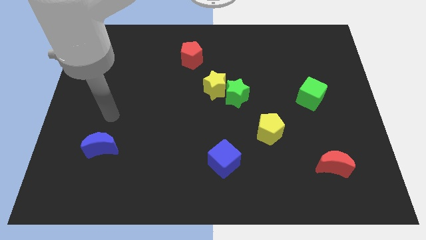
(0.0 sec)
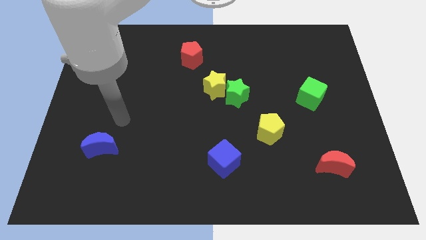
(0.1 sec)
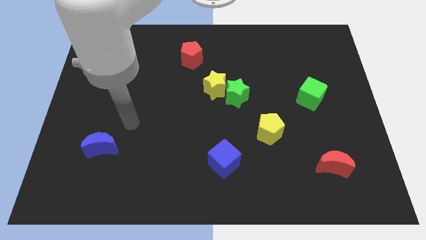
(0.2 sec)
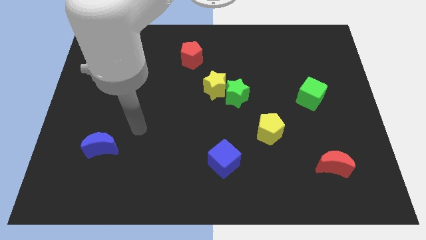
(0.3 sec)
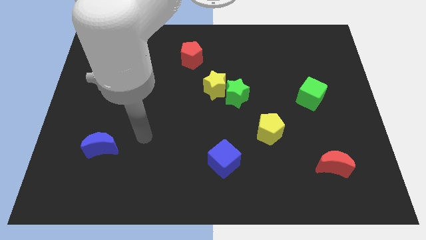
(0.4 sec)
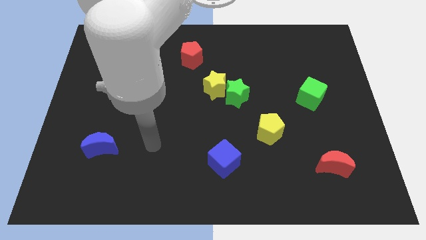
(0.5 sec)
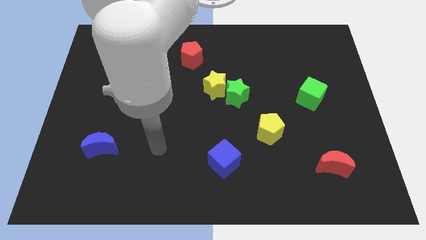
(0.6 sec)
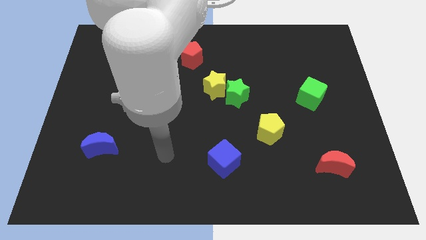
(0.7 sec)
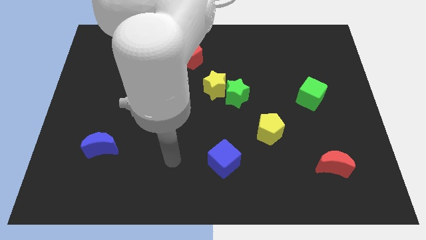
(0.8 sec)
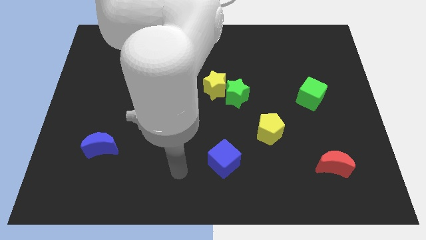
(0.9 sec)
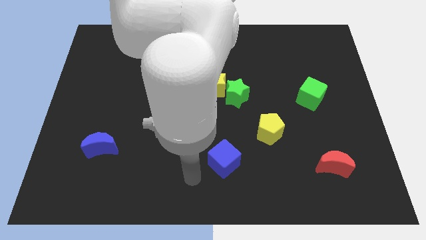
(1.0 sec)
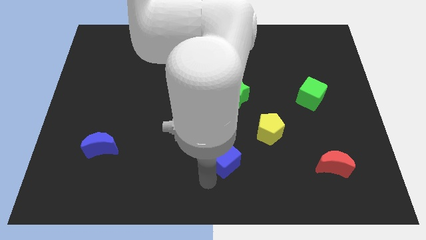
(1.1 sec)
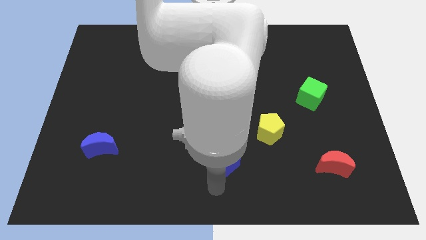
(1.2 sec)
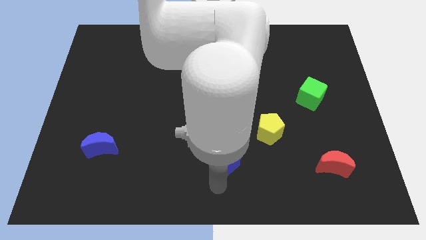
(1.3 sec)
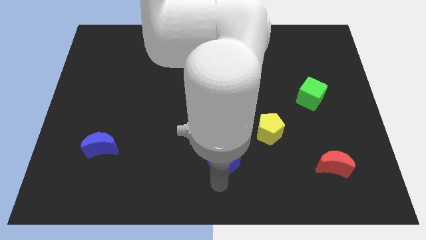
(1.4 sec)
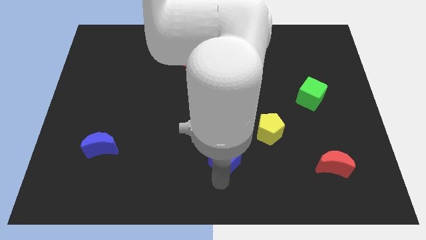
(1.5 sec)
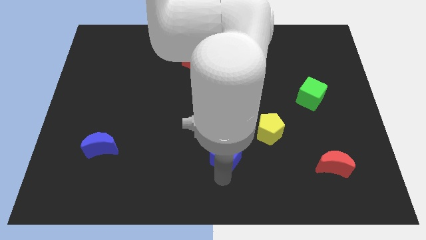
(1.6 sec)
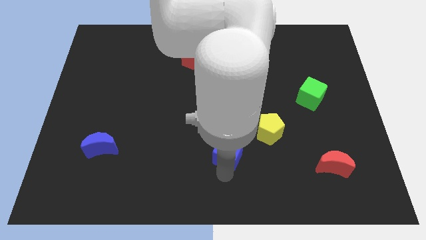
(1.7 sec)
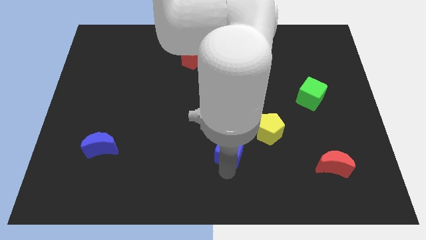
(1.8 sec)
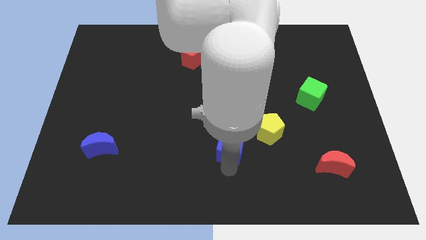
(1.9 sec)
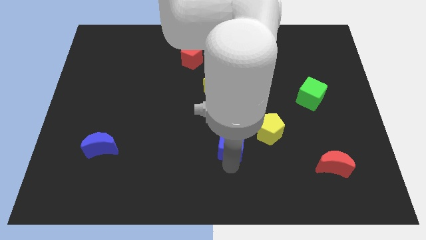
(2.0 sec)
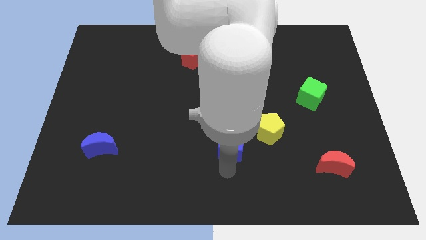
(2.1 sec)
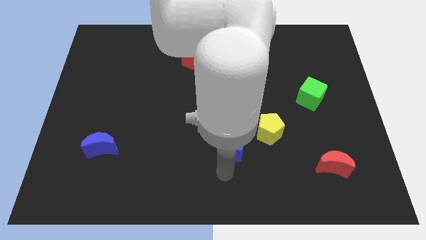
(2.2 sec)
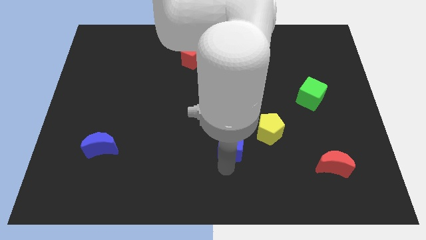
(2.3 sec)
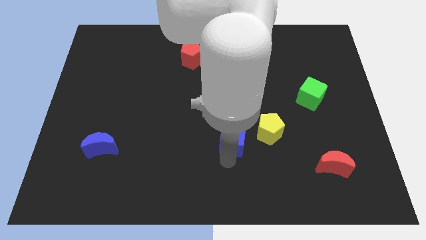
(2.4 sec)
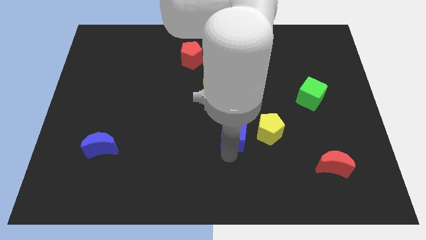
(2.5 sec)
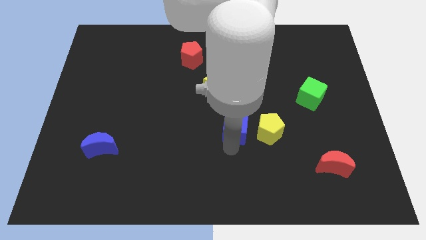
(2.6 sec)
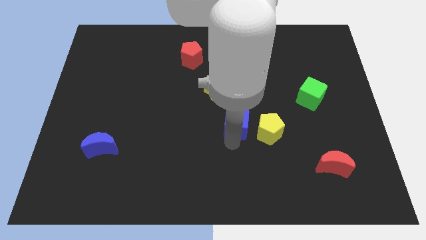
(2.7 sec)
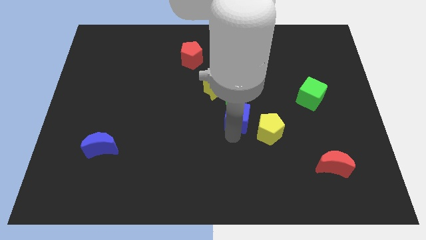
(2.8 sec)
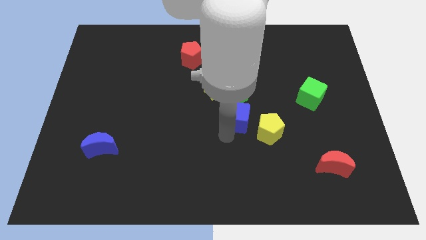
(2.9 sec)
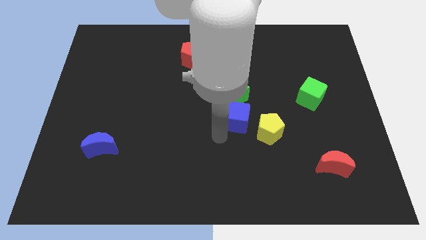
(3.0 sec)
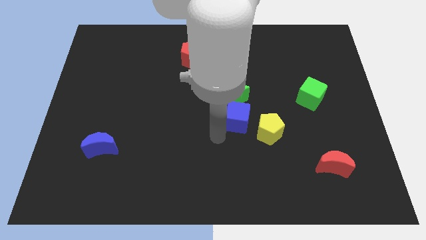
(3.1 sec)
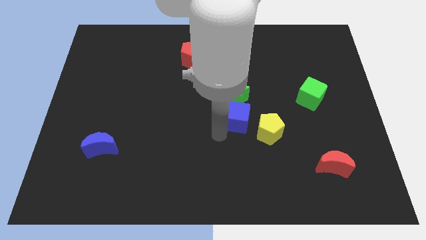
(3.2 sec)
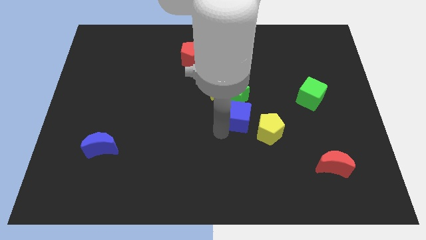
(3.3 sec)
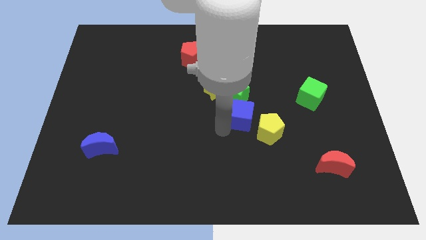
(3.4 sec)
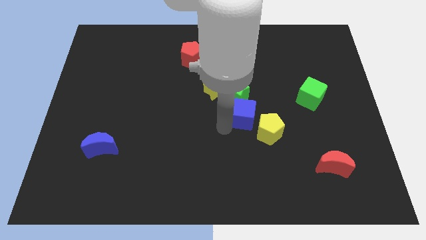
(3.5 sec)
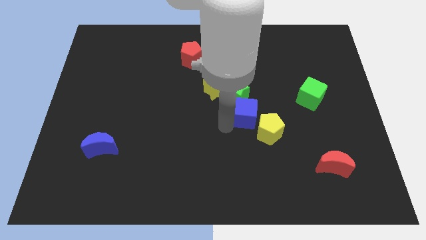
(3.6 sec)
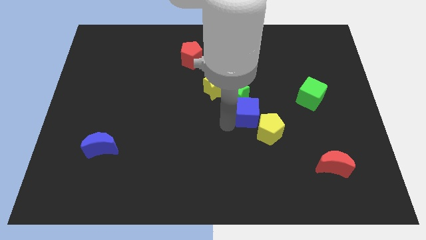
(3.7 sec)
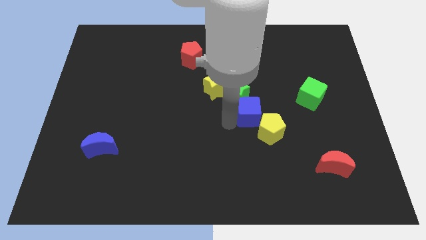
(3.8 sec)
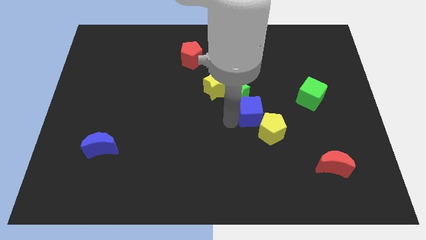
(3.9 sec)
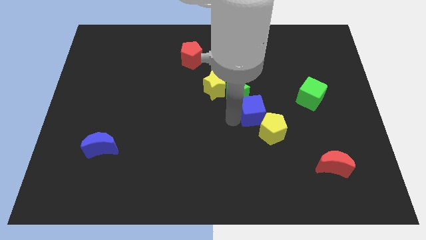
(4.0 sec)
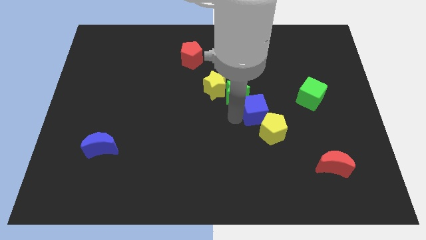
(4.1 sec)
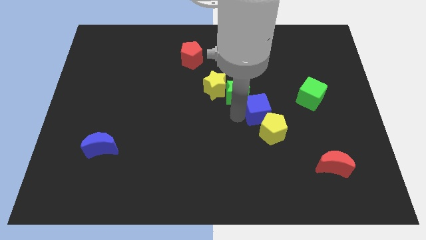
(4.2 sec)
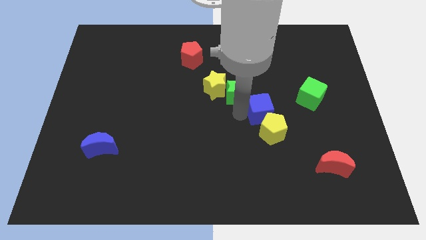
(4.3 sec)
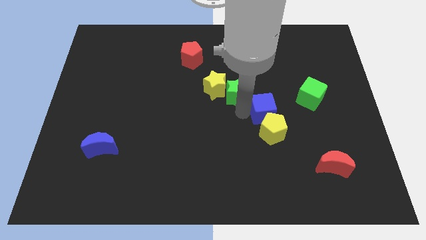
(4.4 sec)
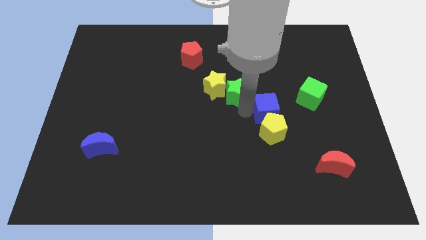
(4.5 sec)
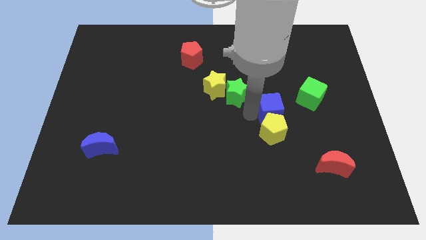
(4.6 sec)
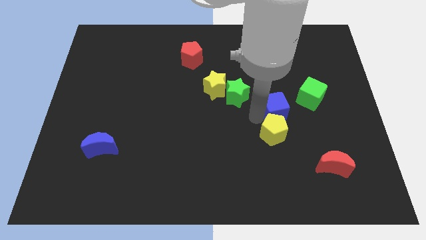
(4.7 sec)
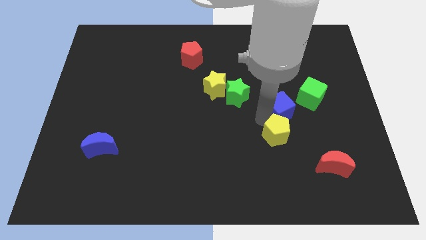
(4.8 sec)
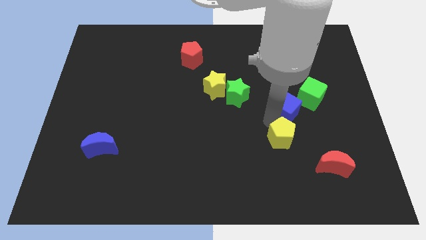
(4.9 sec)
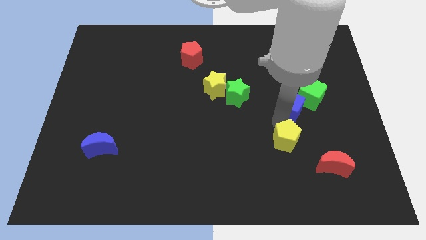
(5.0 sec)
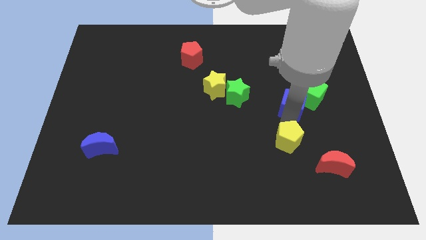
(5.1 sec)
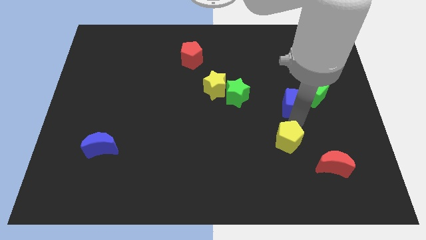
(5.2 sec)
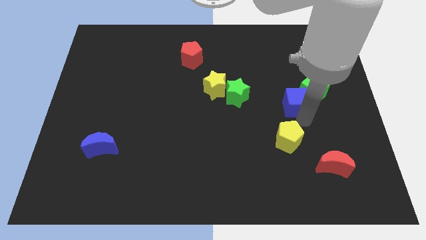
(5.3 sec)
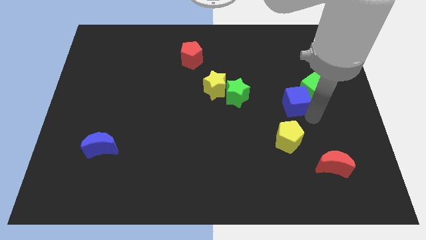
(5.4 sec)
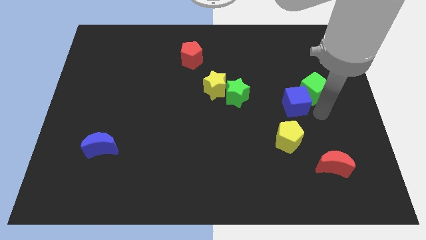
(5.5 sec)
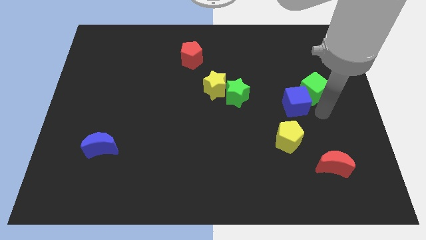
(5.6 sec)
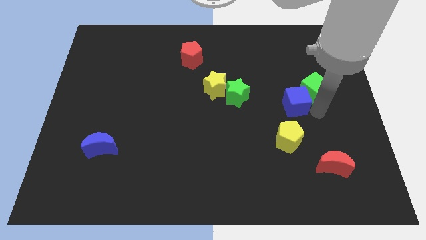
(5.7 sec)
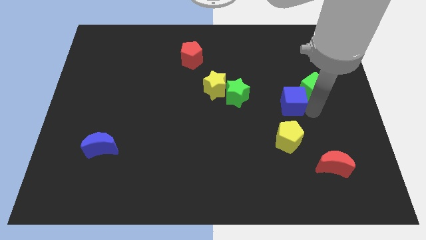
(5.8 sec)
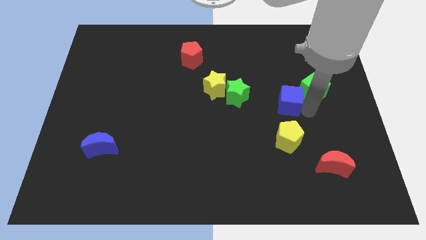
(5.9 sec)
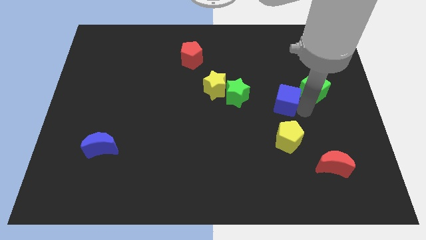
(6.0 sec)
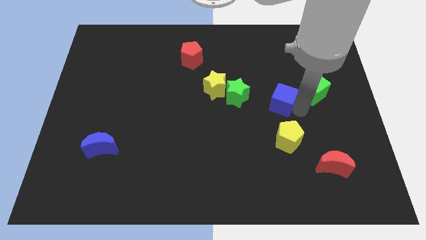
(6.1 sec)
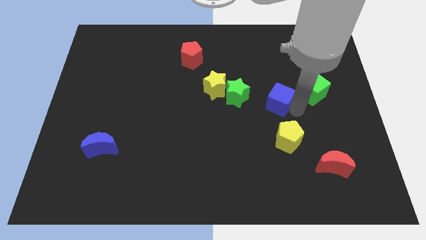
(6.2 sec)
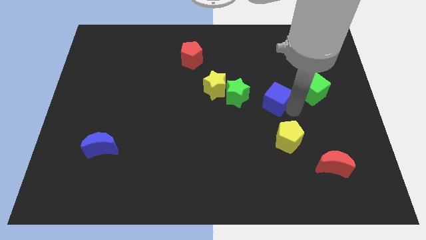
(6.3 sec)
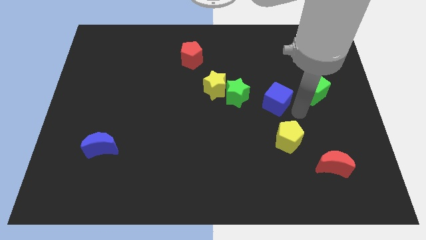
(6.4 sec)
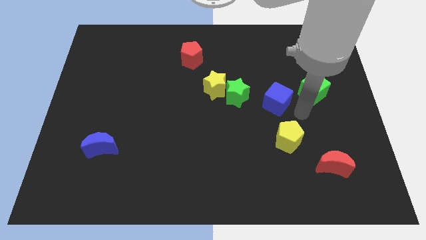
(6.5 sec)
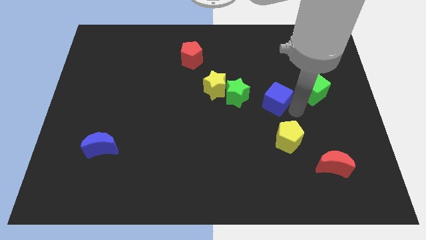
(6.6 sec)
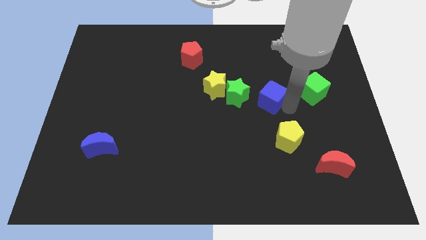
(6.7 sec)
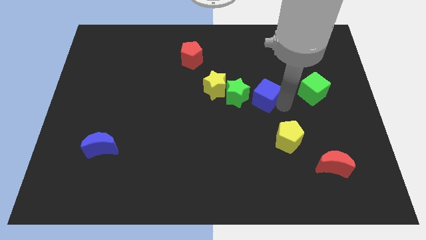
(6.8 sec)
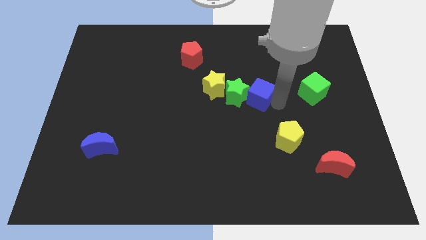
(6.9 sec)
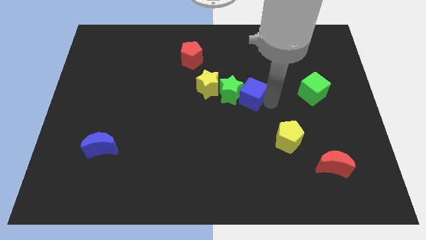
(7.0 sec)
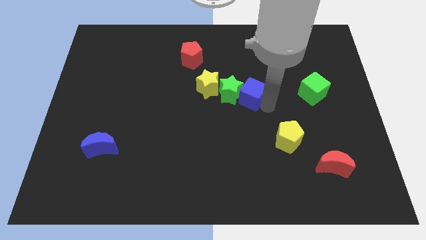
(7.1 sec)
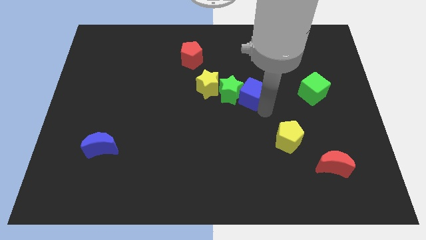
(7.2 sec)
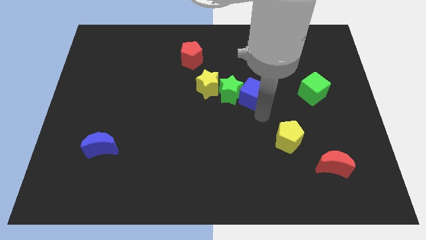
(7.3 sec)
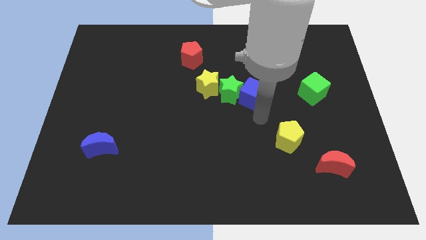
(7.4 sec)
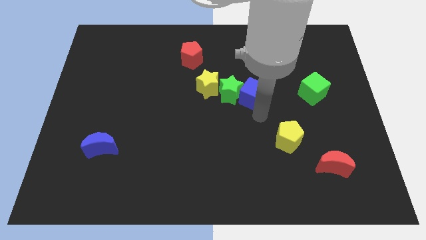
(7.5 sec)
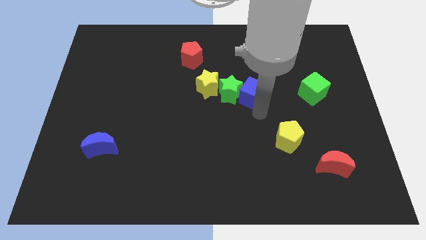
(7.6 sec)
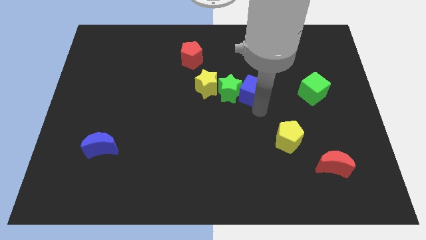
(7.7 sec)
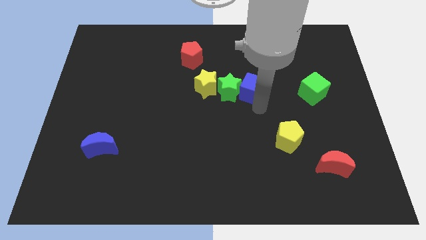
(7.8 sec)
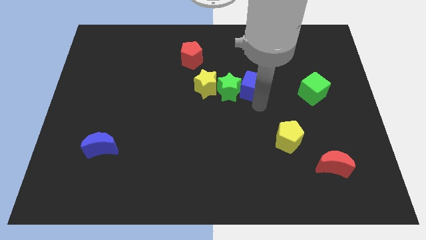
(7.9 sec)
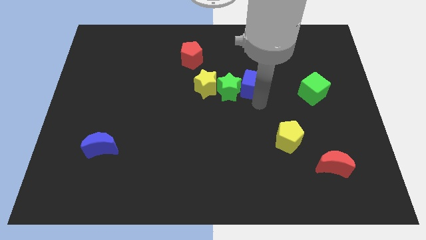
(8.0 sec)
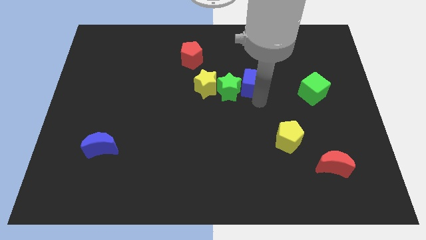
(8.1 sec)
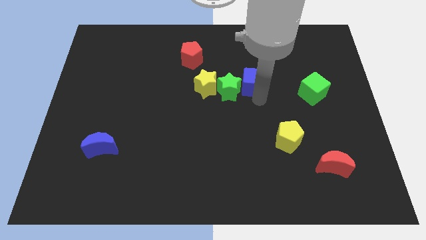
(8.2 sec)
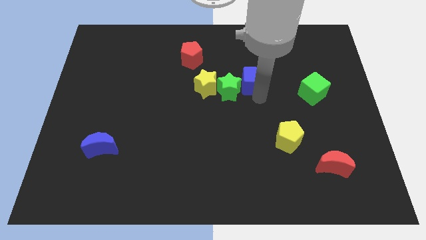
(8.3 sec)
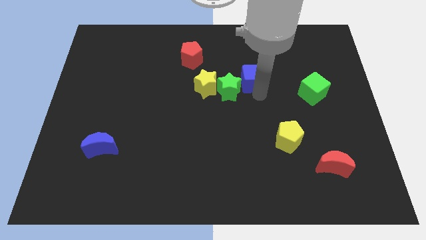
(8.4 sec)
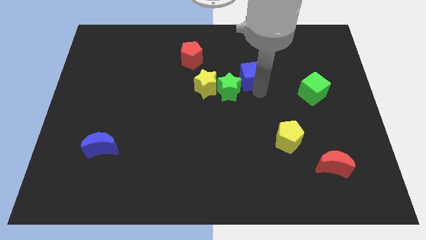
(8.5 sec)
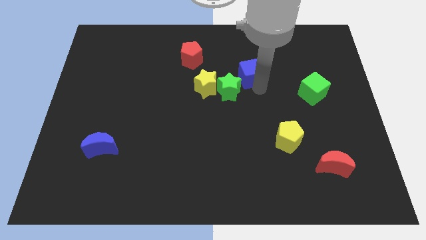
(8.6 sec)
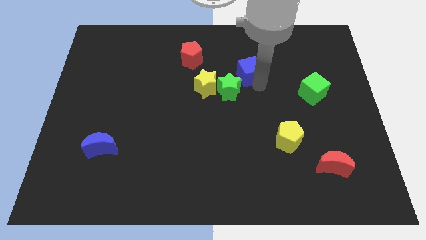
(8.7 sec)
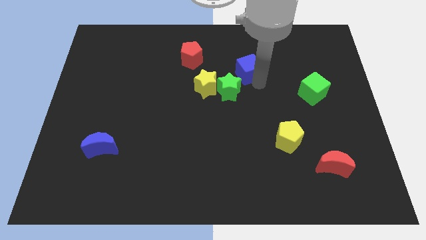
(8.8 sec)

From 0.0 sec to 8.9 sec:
slide the blue cube above the green star
